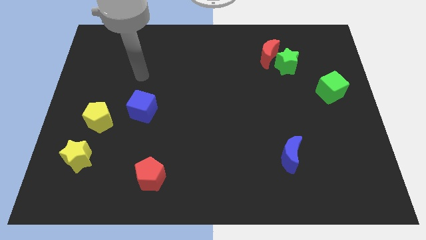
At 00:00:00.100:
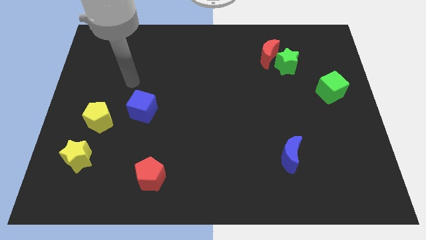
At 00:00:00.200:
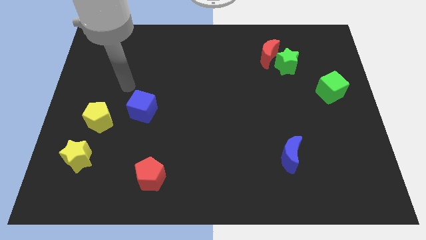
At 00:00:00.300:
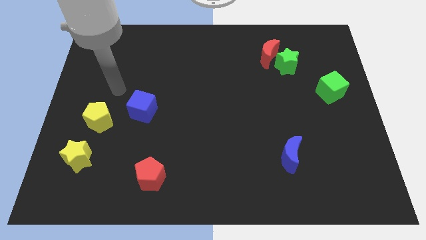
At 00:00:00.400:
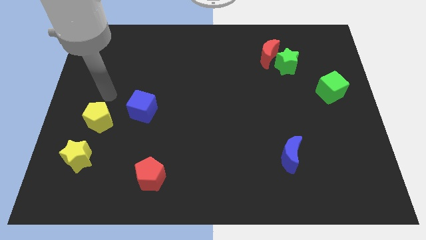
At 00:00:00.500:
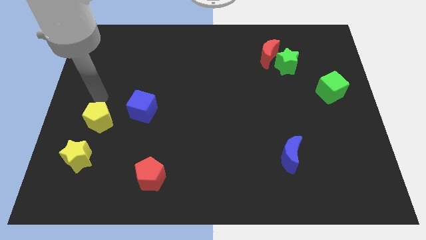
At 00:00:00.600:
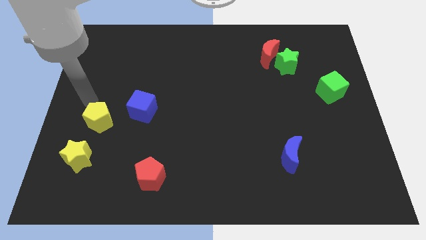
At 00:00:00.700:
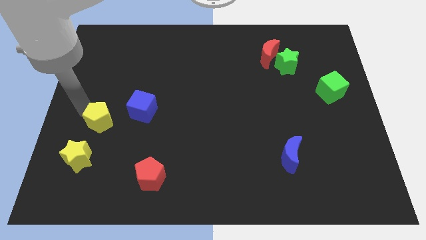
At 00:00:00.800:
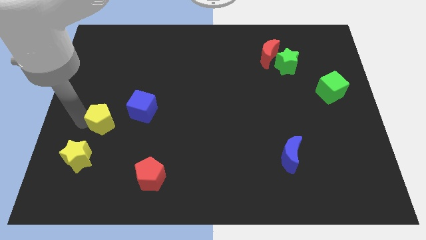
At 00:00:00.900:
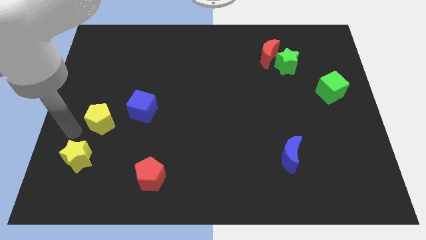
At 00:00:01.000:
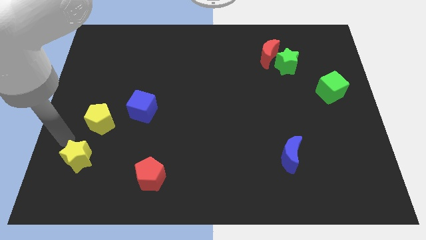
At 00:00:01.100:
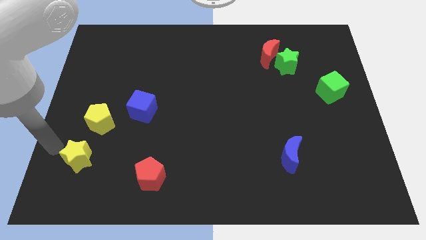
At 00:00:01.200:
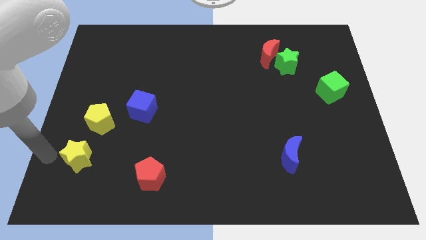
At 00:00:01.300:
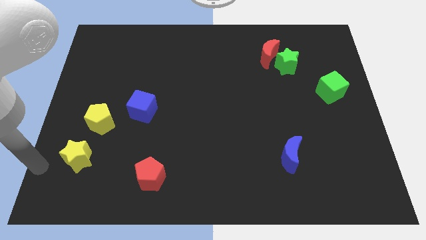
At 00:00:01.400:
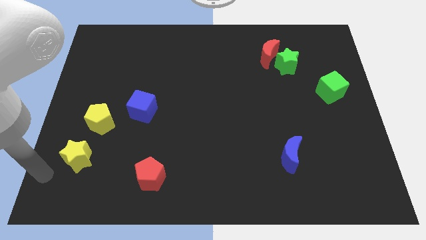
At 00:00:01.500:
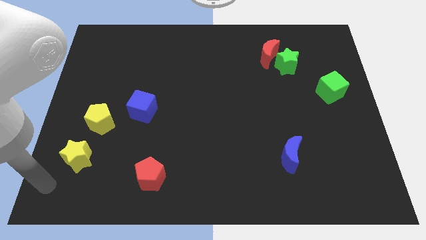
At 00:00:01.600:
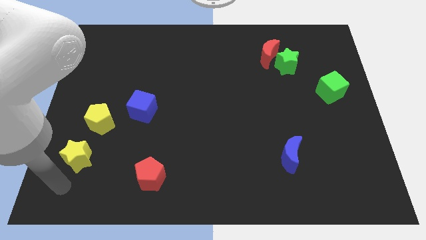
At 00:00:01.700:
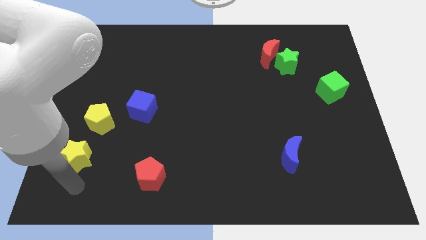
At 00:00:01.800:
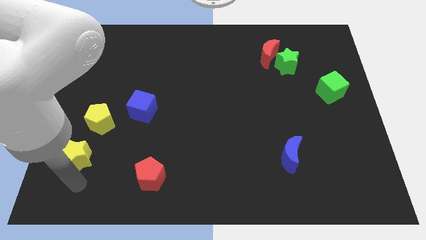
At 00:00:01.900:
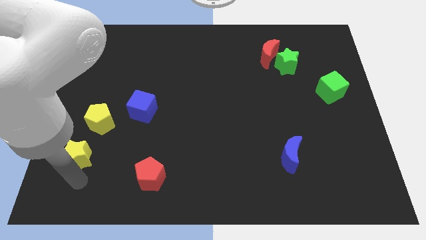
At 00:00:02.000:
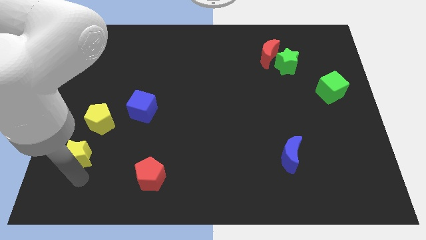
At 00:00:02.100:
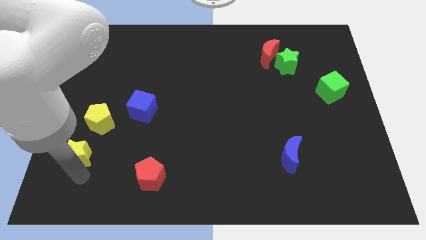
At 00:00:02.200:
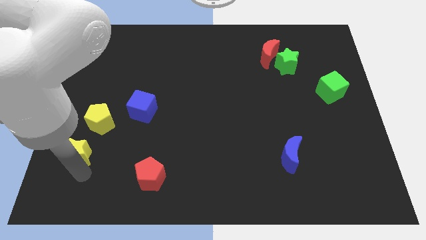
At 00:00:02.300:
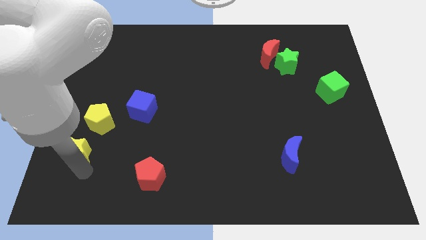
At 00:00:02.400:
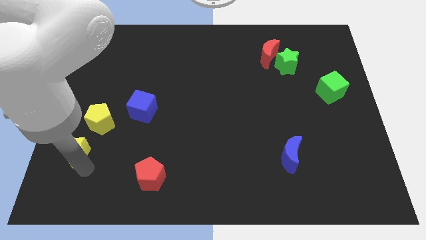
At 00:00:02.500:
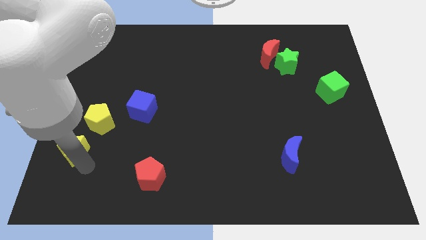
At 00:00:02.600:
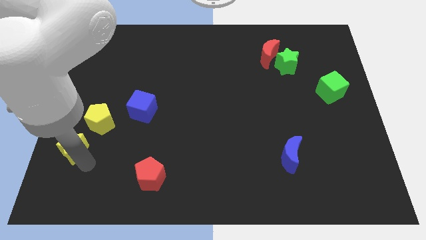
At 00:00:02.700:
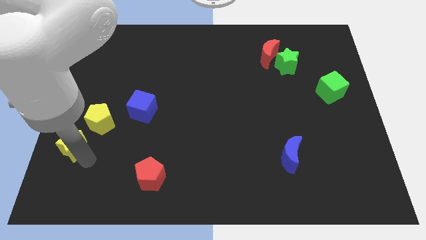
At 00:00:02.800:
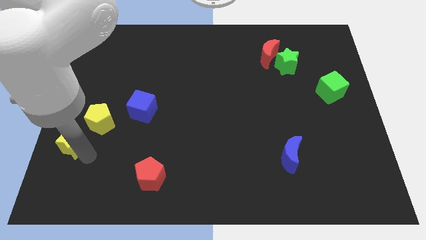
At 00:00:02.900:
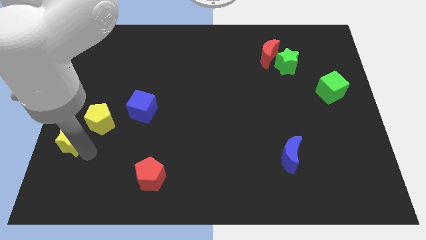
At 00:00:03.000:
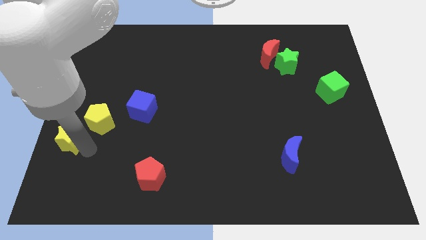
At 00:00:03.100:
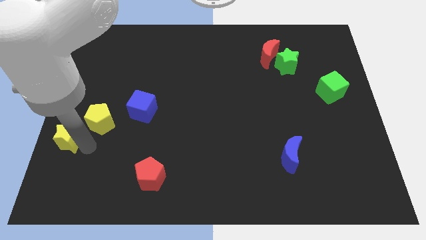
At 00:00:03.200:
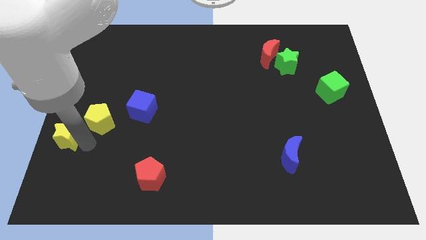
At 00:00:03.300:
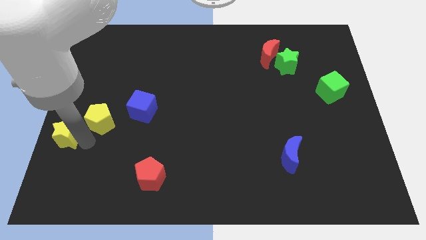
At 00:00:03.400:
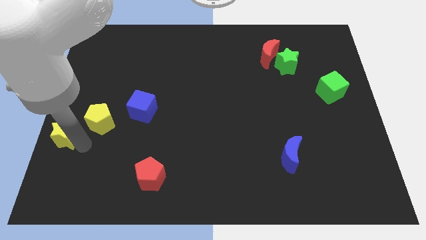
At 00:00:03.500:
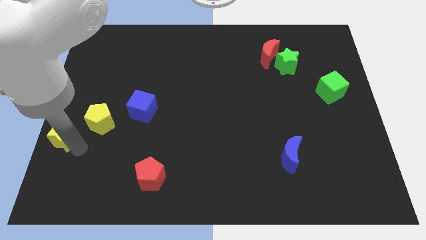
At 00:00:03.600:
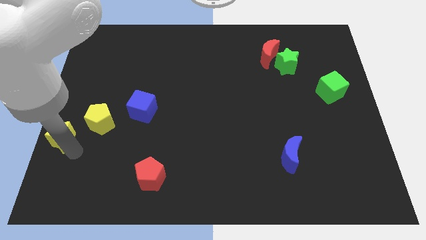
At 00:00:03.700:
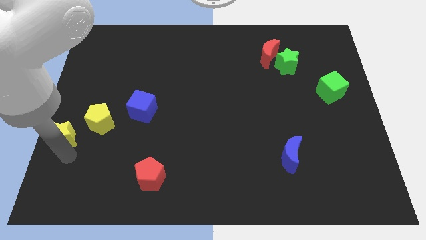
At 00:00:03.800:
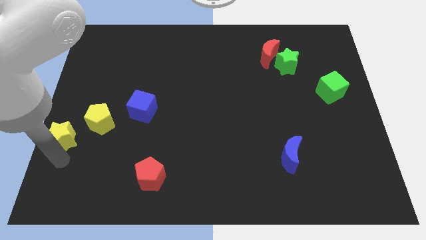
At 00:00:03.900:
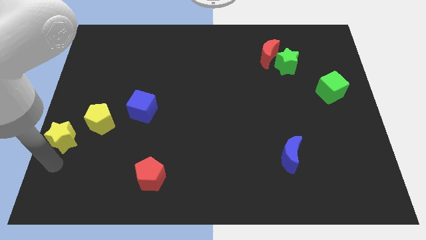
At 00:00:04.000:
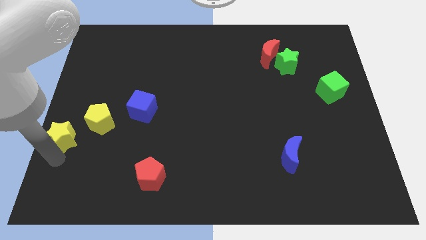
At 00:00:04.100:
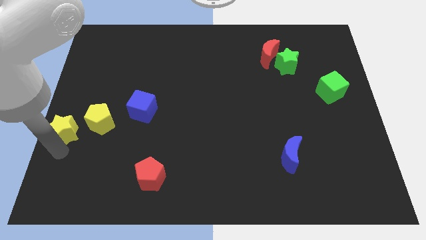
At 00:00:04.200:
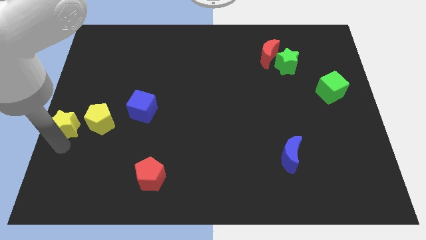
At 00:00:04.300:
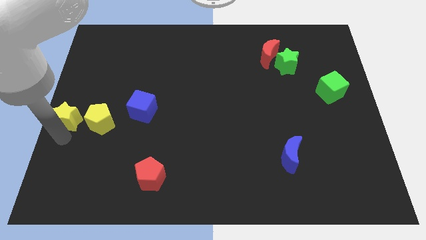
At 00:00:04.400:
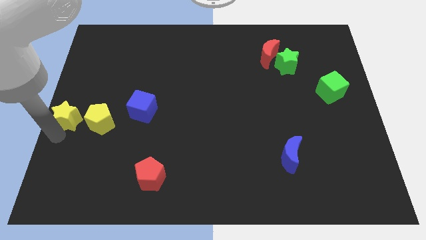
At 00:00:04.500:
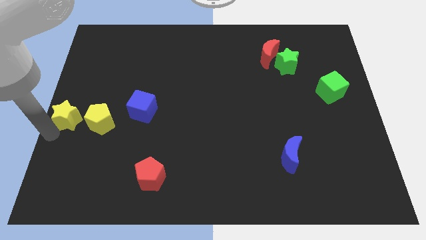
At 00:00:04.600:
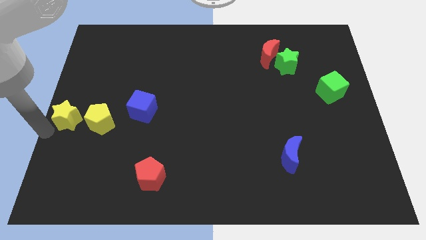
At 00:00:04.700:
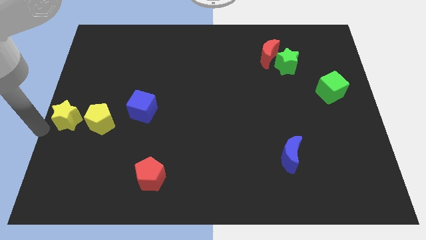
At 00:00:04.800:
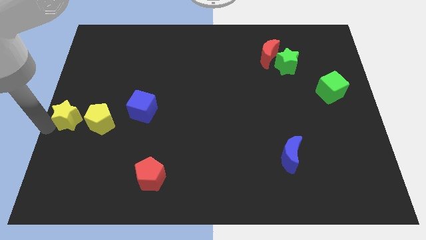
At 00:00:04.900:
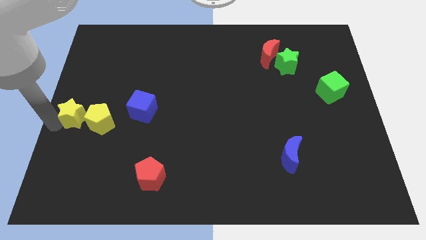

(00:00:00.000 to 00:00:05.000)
move the yellow star to the left side of the blue cube

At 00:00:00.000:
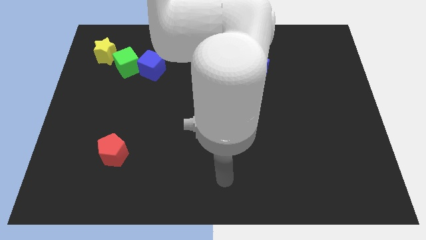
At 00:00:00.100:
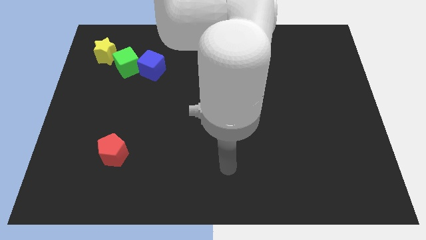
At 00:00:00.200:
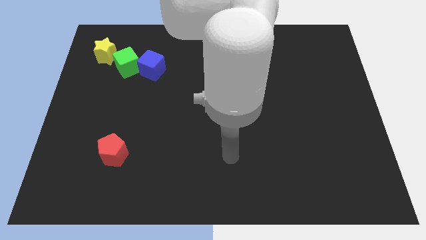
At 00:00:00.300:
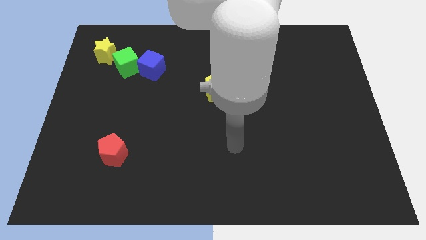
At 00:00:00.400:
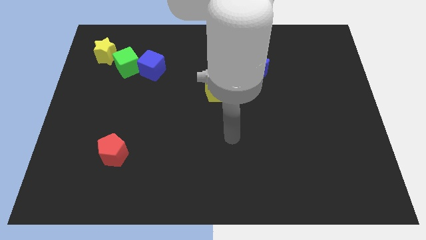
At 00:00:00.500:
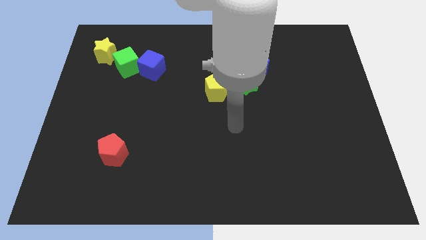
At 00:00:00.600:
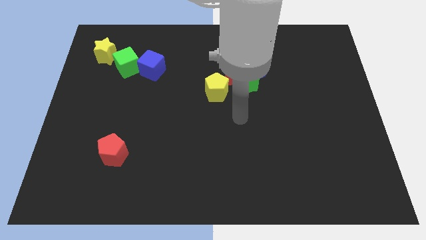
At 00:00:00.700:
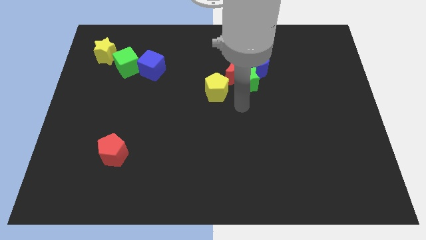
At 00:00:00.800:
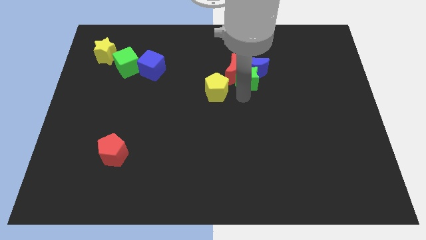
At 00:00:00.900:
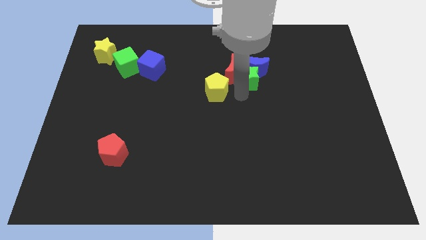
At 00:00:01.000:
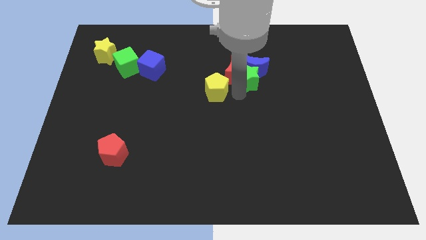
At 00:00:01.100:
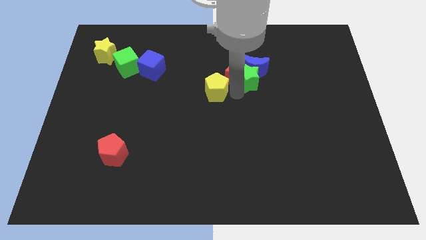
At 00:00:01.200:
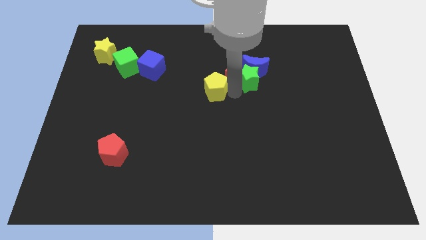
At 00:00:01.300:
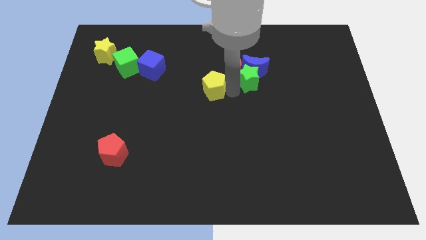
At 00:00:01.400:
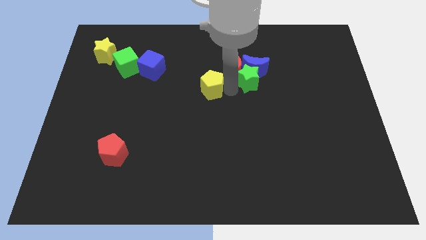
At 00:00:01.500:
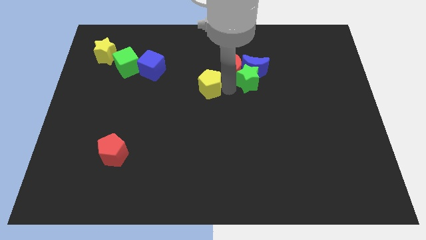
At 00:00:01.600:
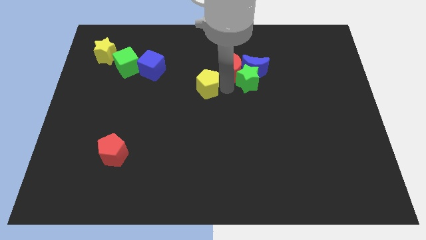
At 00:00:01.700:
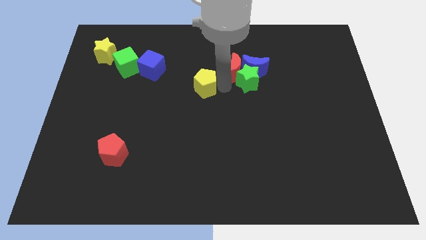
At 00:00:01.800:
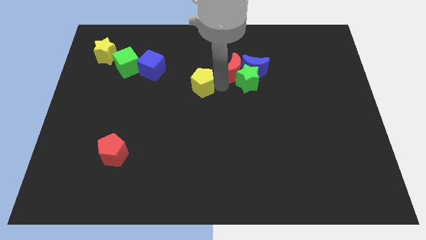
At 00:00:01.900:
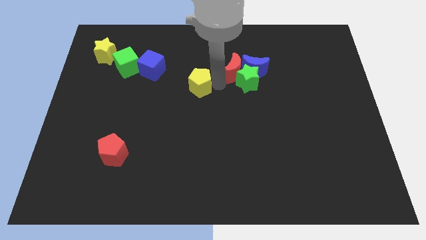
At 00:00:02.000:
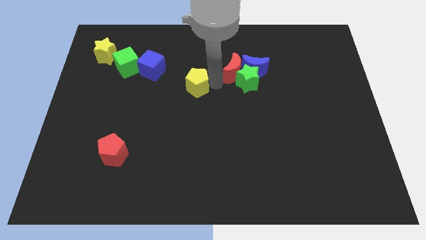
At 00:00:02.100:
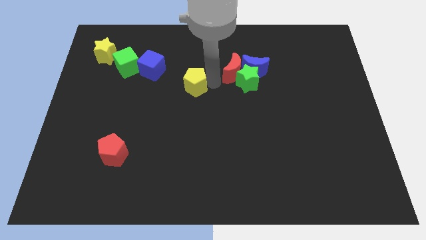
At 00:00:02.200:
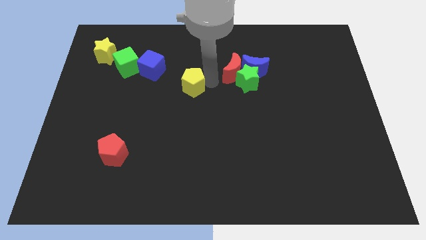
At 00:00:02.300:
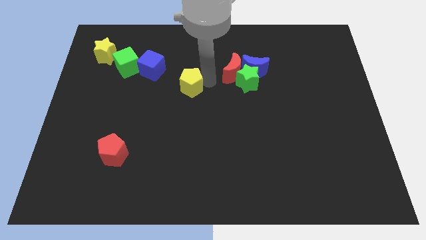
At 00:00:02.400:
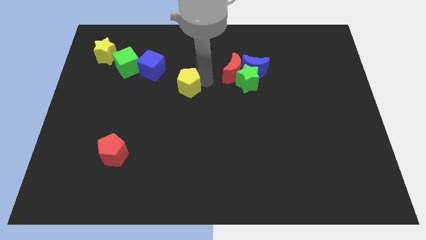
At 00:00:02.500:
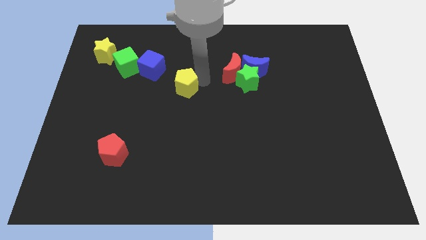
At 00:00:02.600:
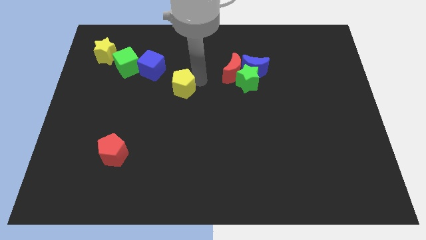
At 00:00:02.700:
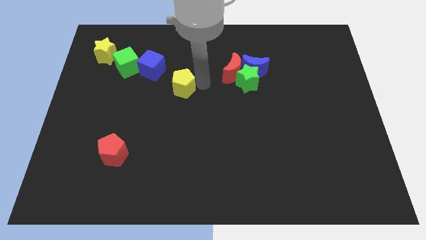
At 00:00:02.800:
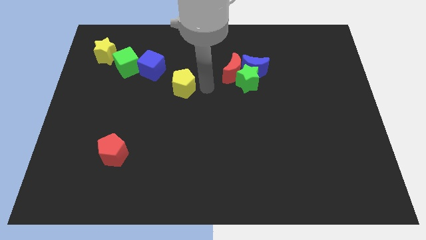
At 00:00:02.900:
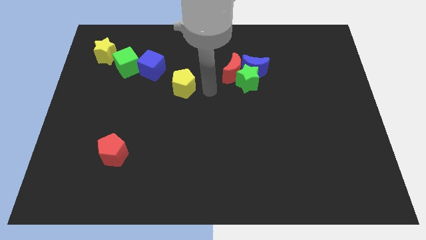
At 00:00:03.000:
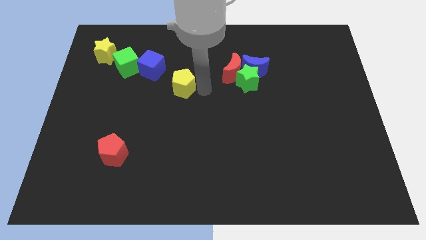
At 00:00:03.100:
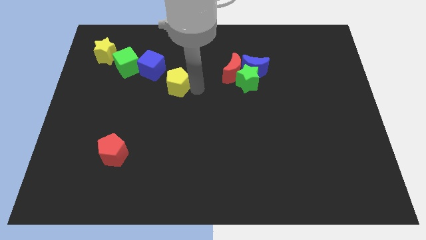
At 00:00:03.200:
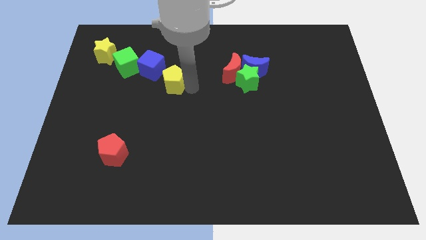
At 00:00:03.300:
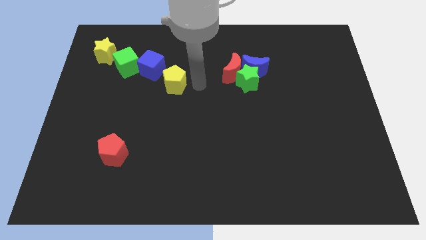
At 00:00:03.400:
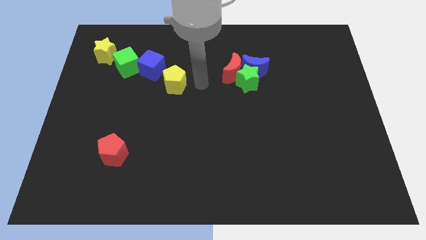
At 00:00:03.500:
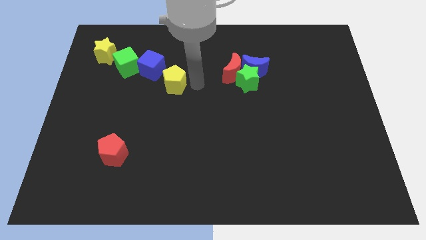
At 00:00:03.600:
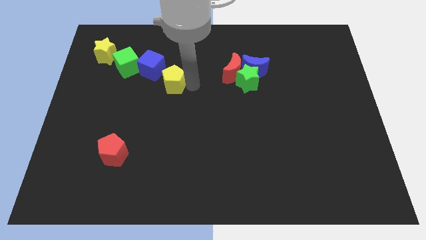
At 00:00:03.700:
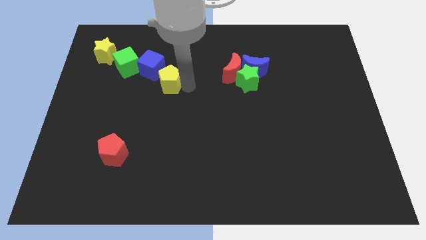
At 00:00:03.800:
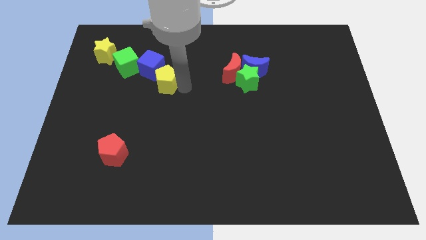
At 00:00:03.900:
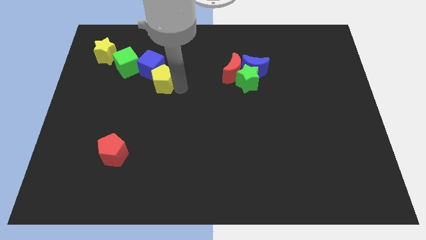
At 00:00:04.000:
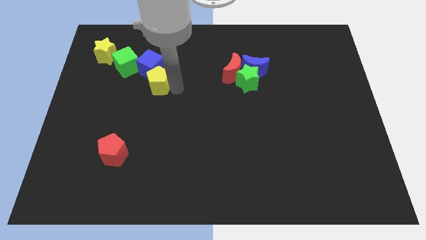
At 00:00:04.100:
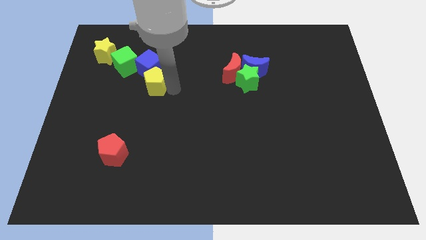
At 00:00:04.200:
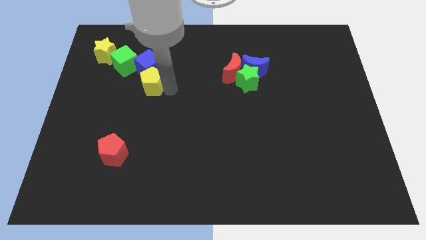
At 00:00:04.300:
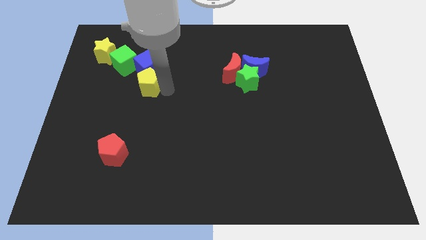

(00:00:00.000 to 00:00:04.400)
slide the yellow pentagon diagonally down and to the left of the blue cube
